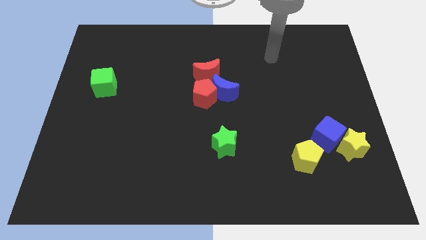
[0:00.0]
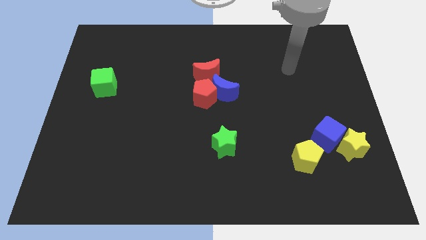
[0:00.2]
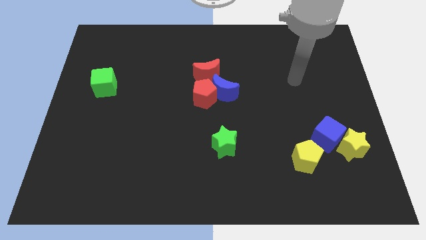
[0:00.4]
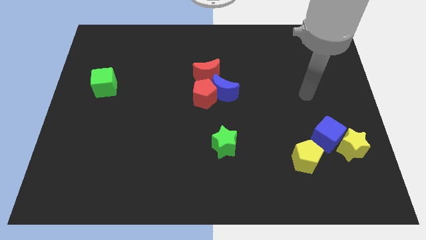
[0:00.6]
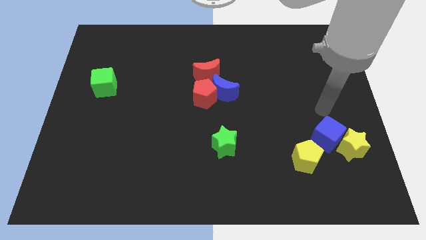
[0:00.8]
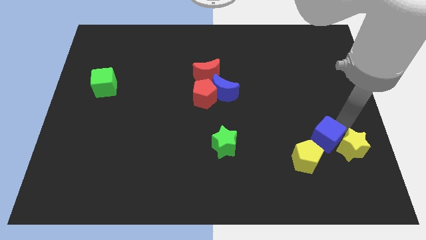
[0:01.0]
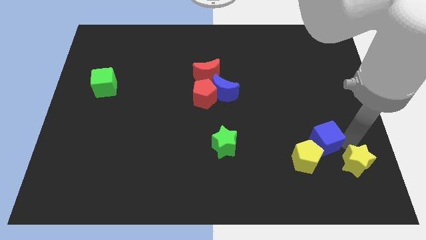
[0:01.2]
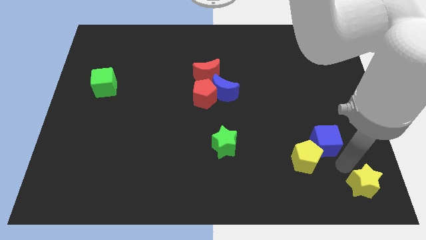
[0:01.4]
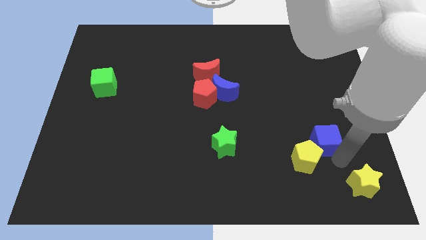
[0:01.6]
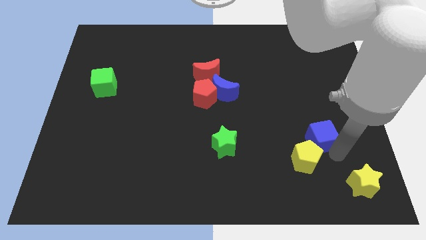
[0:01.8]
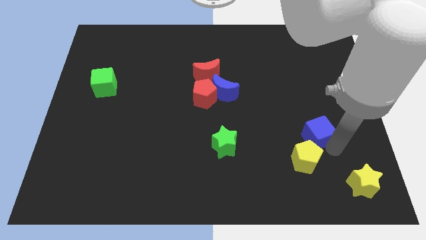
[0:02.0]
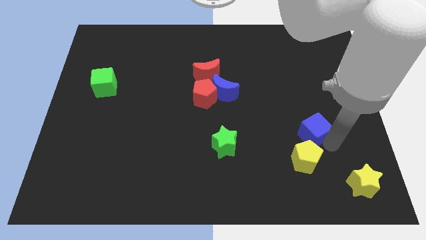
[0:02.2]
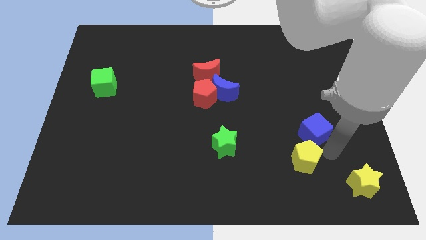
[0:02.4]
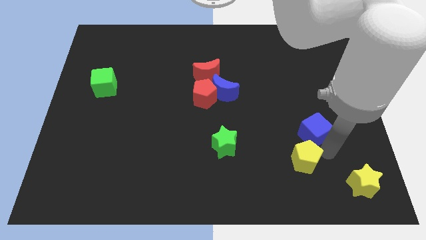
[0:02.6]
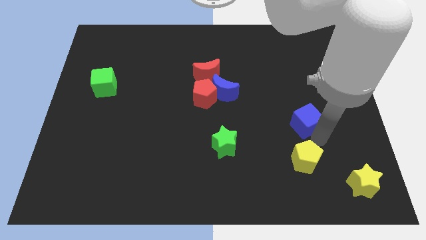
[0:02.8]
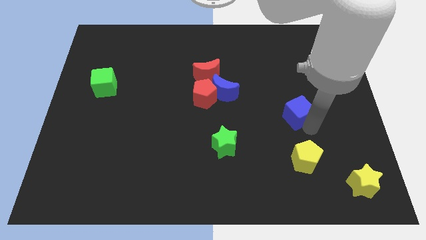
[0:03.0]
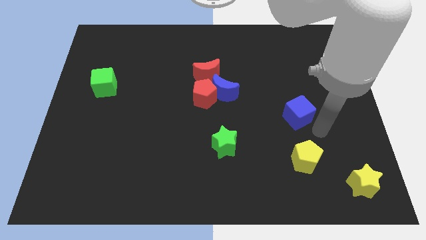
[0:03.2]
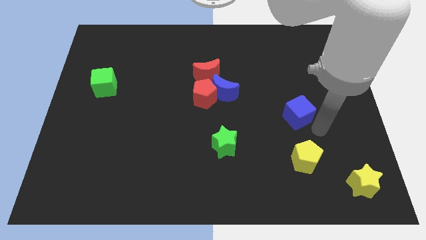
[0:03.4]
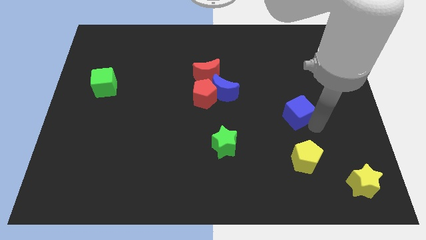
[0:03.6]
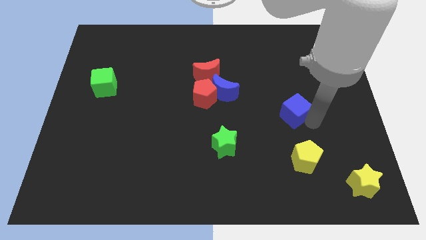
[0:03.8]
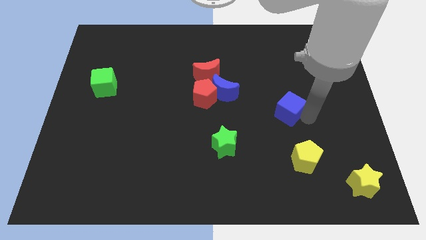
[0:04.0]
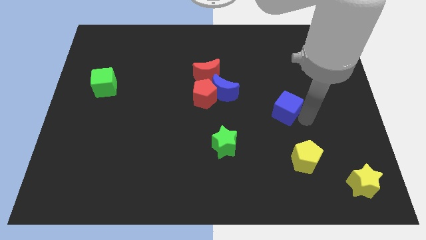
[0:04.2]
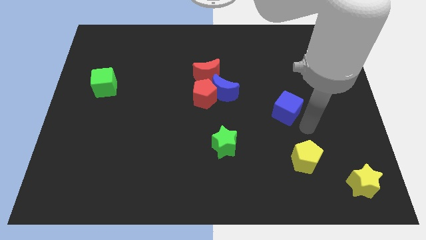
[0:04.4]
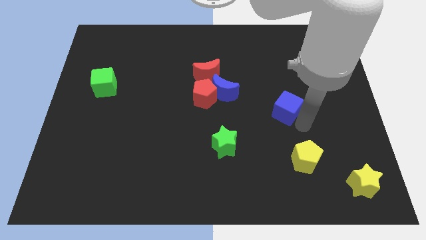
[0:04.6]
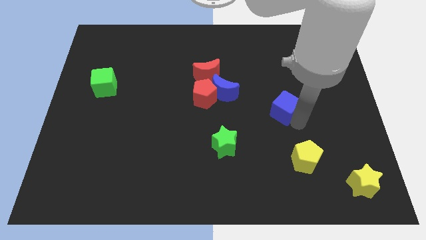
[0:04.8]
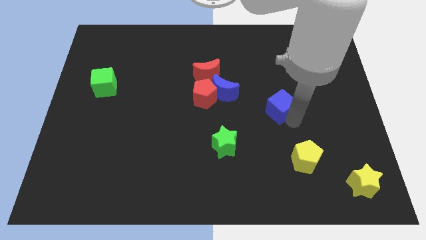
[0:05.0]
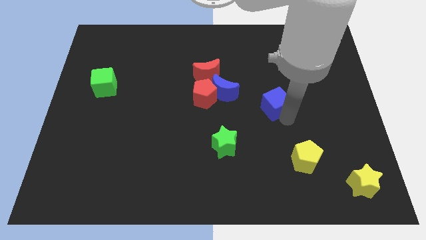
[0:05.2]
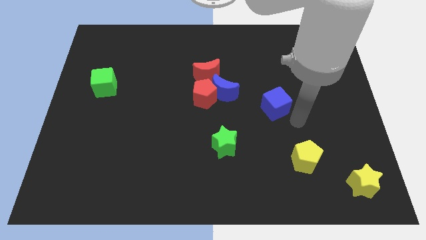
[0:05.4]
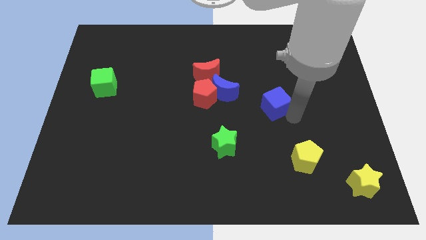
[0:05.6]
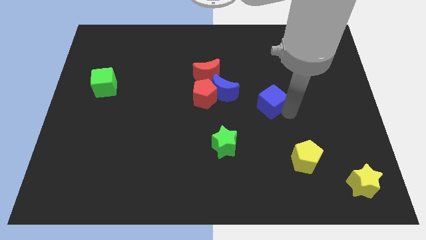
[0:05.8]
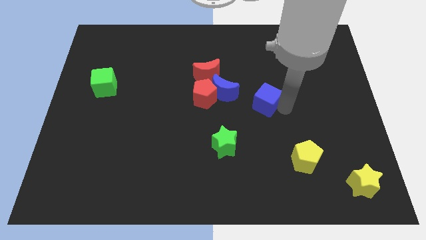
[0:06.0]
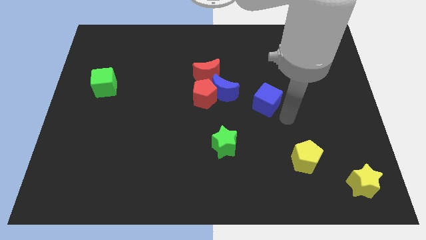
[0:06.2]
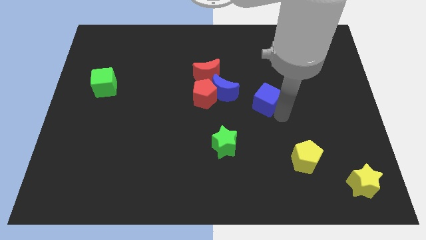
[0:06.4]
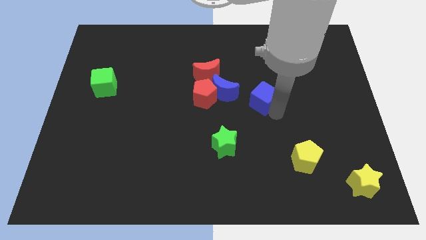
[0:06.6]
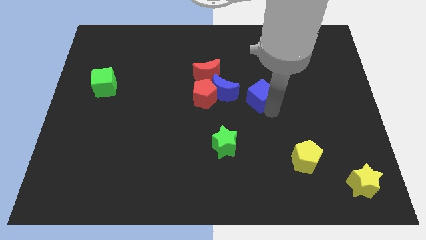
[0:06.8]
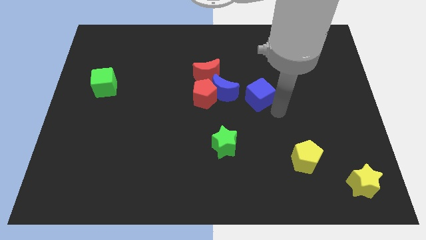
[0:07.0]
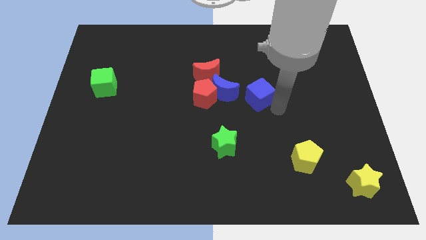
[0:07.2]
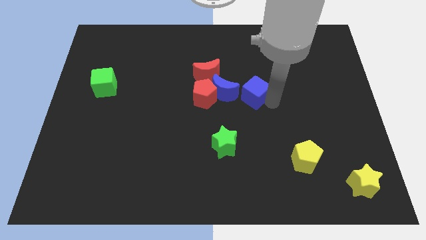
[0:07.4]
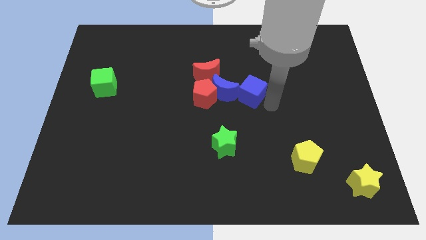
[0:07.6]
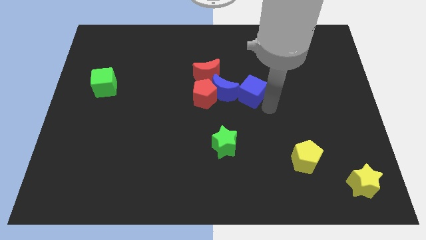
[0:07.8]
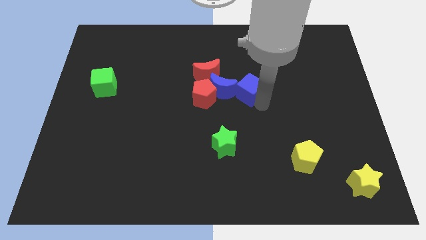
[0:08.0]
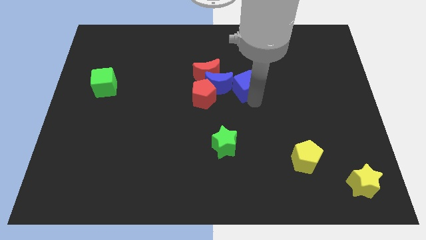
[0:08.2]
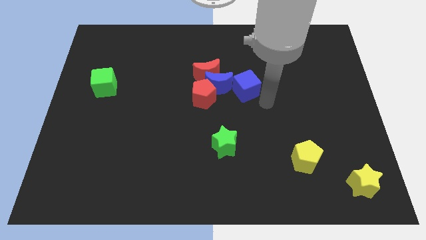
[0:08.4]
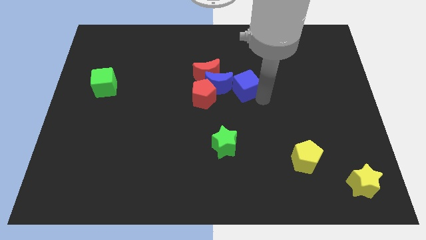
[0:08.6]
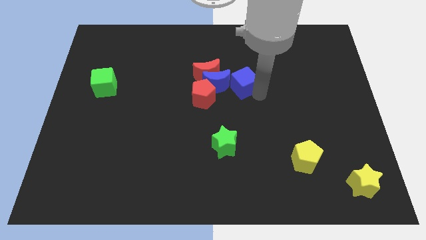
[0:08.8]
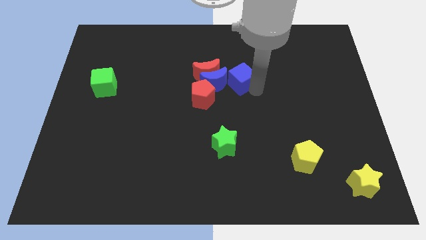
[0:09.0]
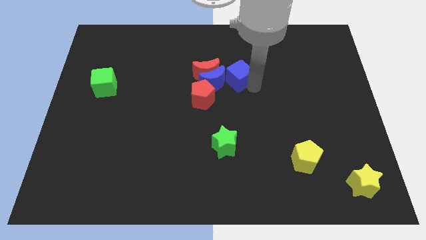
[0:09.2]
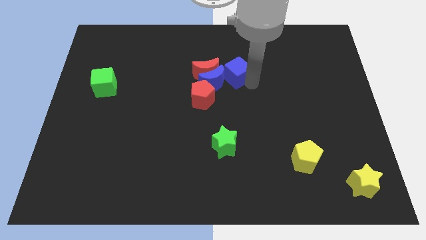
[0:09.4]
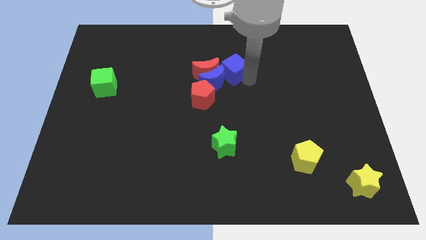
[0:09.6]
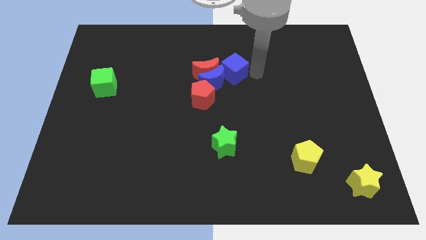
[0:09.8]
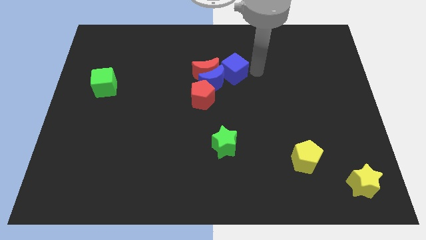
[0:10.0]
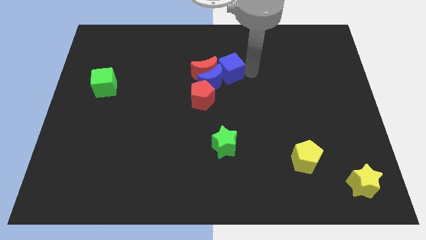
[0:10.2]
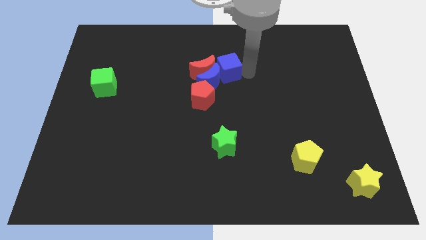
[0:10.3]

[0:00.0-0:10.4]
put the blue cube towards the red moon

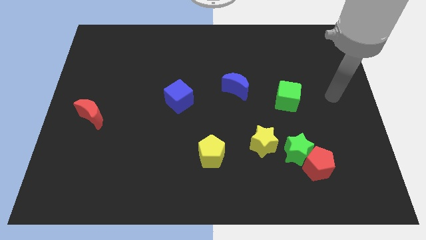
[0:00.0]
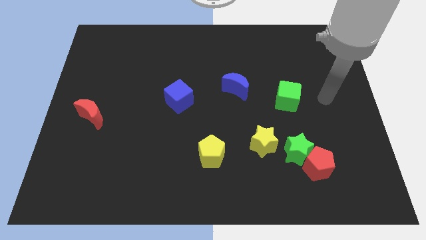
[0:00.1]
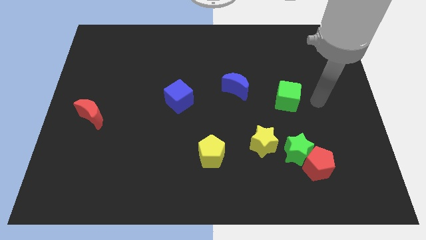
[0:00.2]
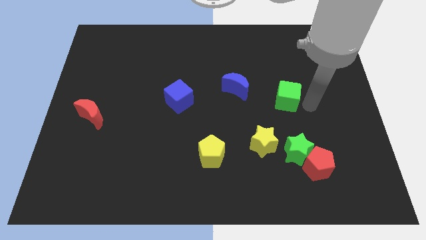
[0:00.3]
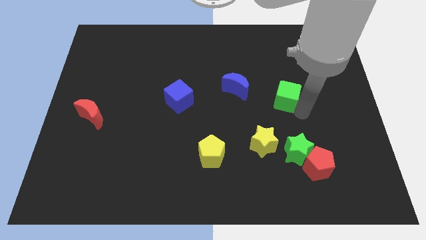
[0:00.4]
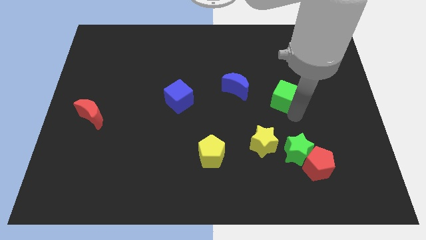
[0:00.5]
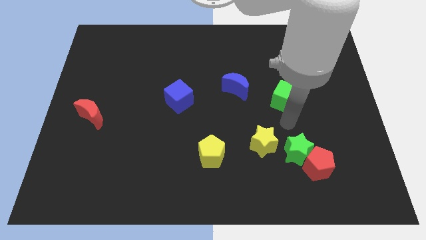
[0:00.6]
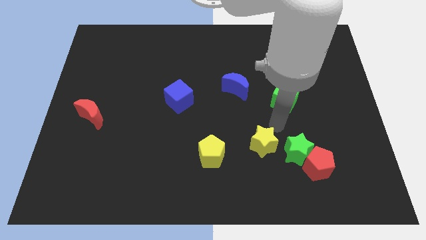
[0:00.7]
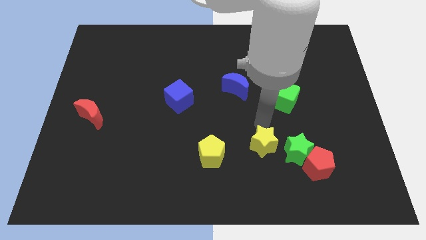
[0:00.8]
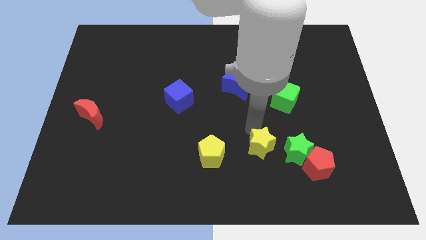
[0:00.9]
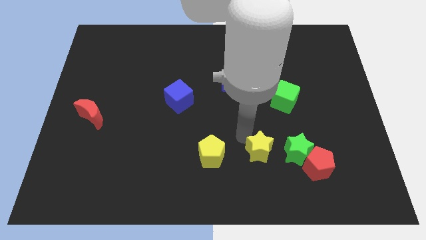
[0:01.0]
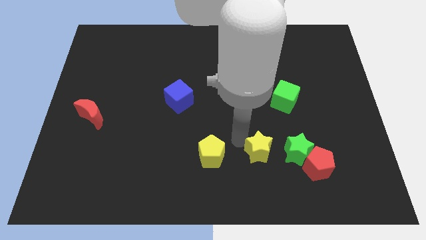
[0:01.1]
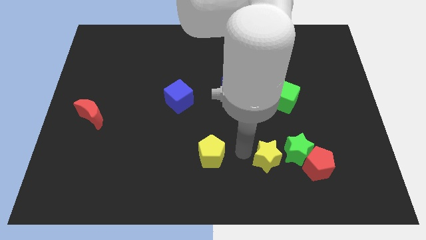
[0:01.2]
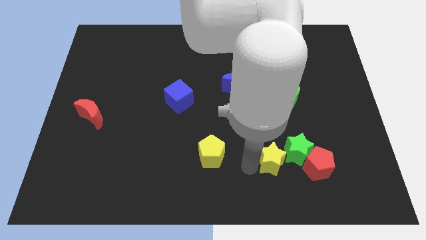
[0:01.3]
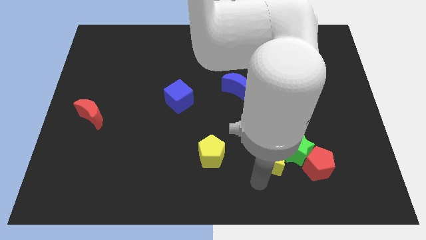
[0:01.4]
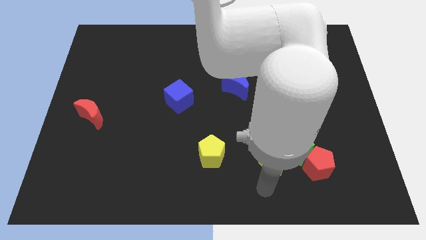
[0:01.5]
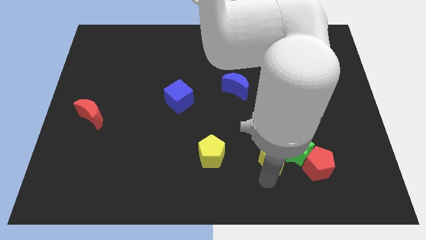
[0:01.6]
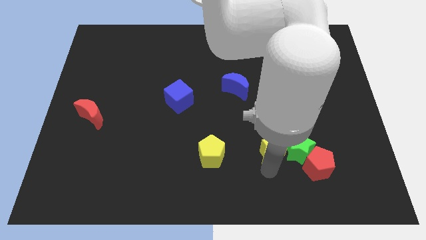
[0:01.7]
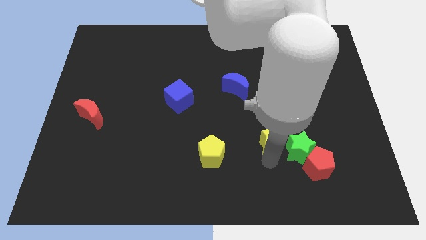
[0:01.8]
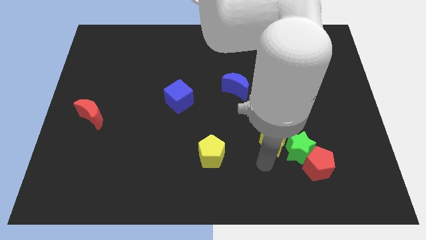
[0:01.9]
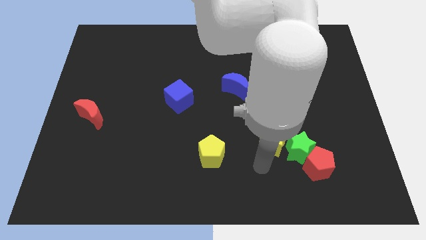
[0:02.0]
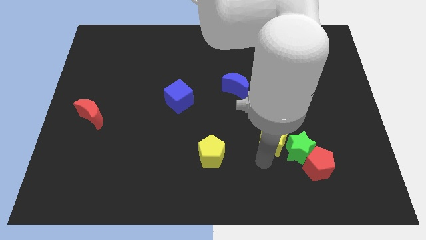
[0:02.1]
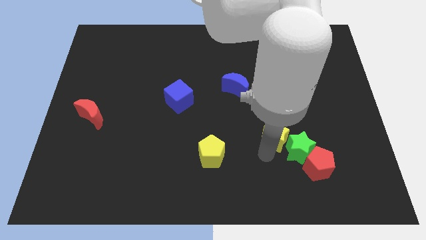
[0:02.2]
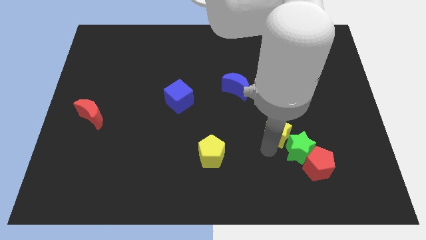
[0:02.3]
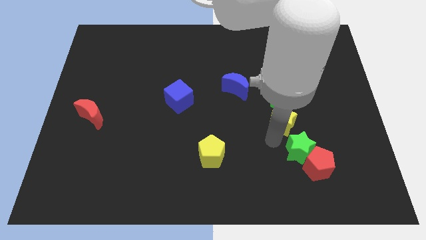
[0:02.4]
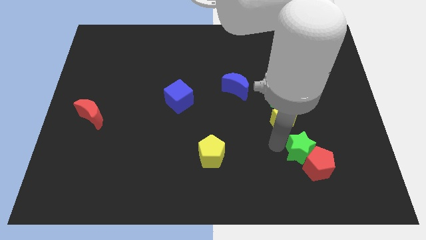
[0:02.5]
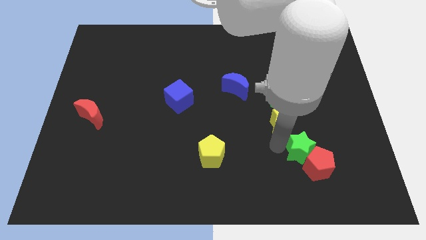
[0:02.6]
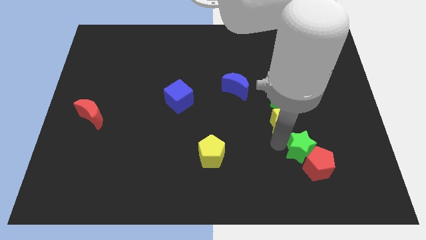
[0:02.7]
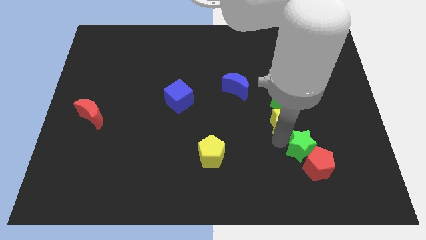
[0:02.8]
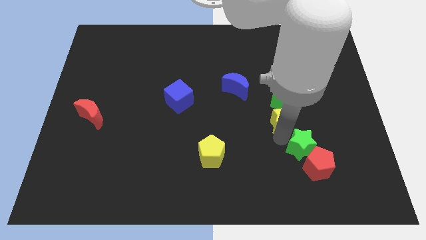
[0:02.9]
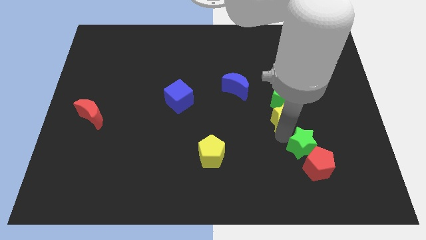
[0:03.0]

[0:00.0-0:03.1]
put the yellow star next to the green cube
